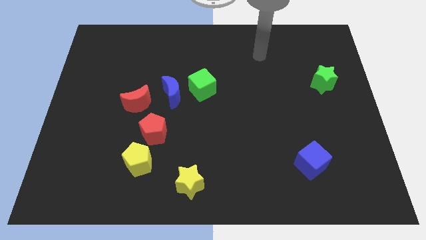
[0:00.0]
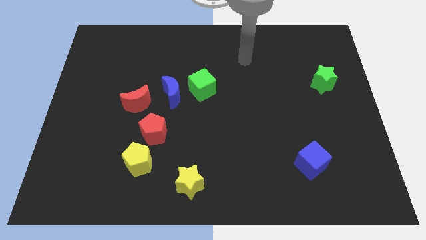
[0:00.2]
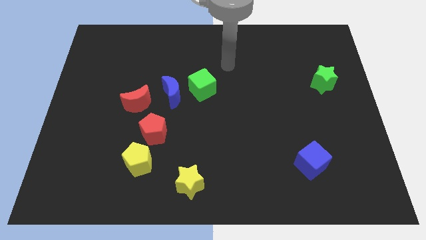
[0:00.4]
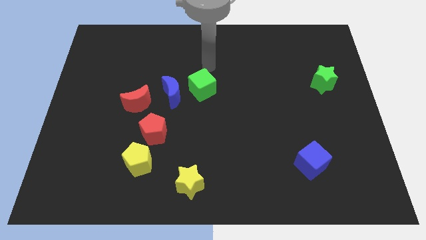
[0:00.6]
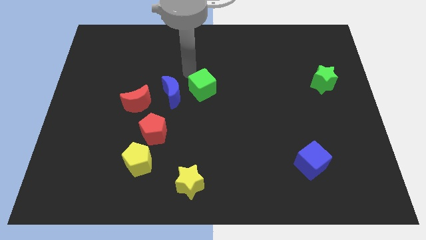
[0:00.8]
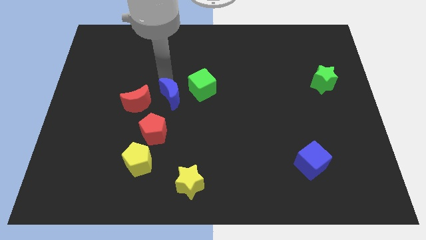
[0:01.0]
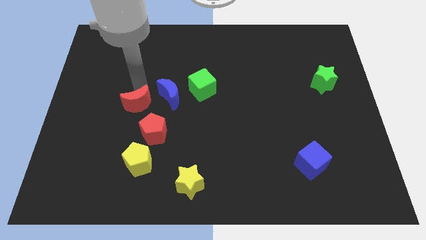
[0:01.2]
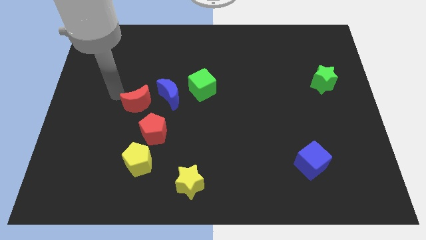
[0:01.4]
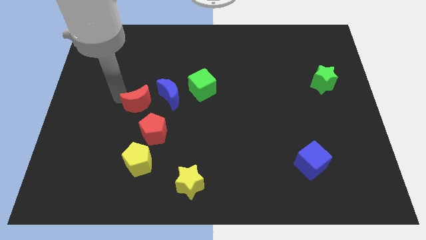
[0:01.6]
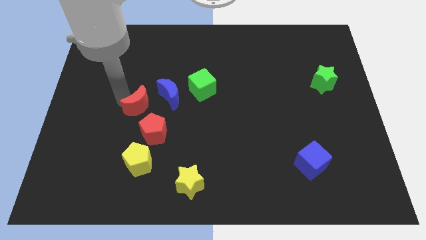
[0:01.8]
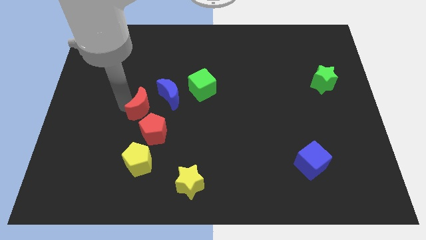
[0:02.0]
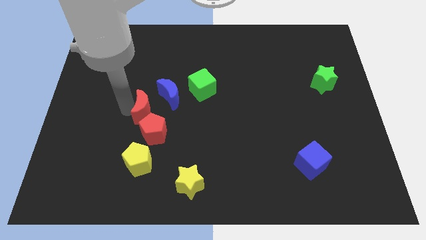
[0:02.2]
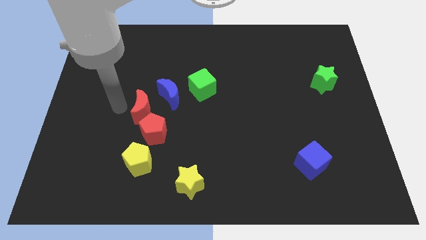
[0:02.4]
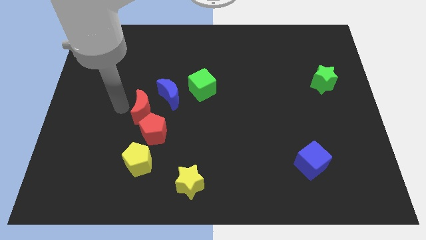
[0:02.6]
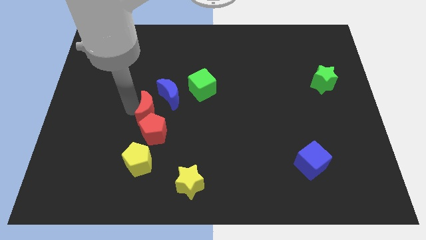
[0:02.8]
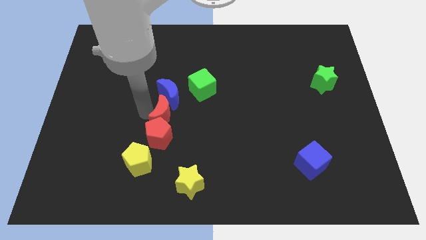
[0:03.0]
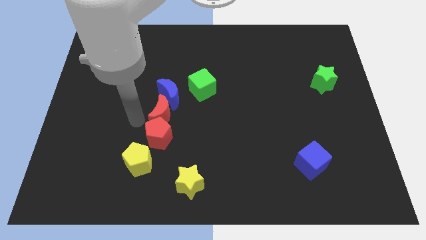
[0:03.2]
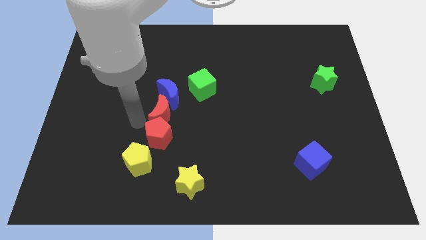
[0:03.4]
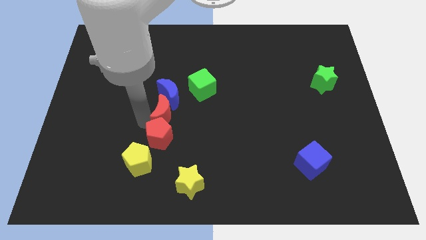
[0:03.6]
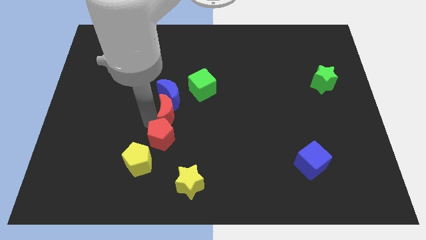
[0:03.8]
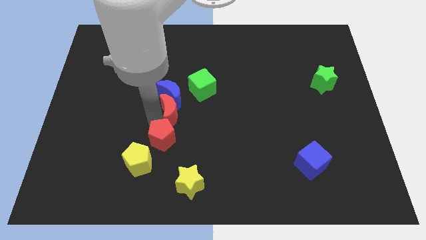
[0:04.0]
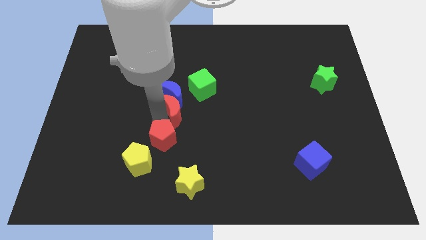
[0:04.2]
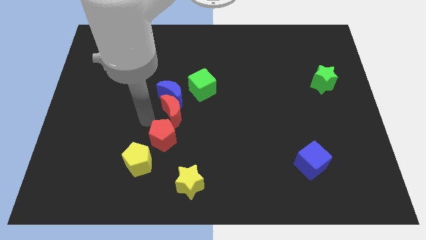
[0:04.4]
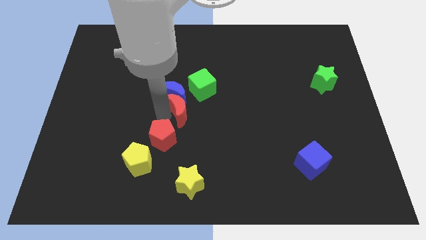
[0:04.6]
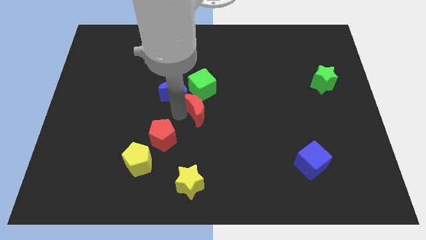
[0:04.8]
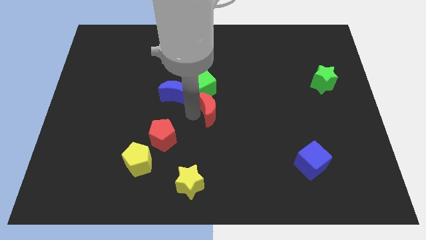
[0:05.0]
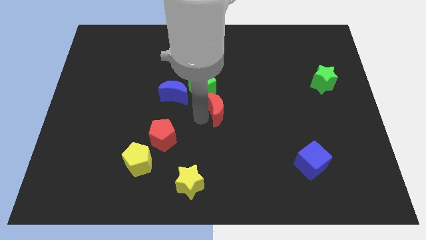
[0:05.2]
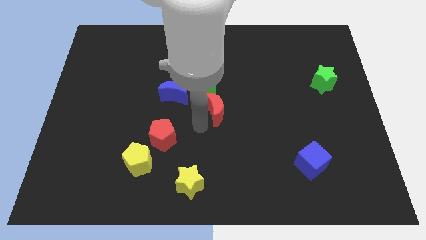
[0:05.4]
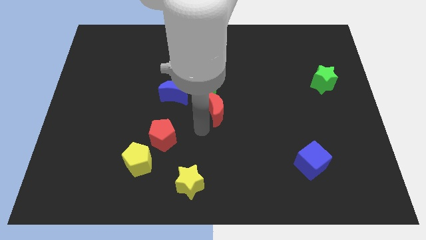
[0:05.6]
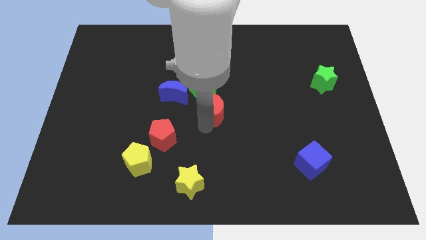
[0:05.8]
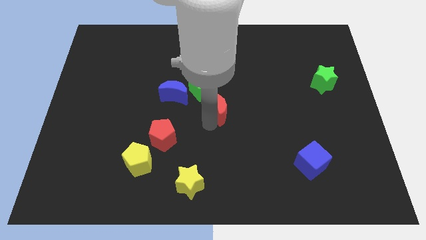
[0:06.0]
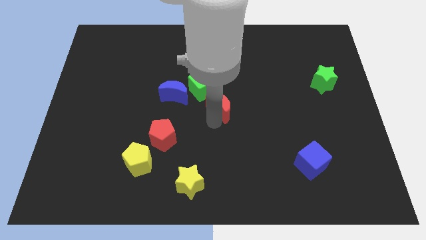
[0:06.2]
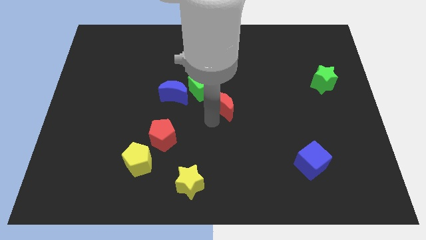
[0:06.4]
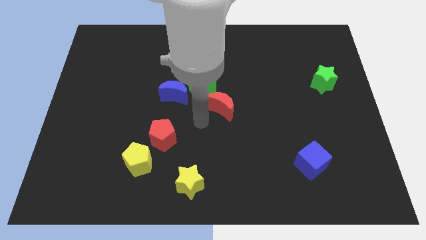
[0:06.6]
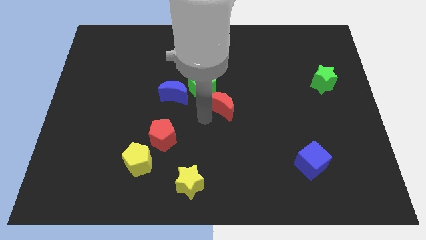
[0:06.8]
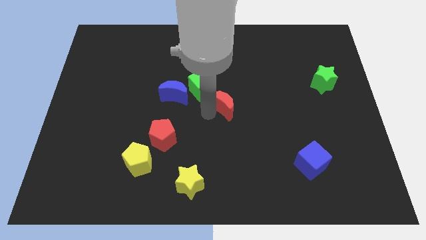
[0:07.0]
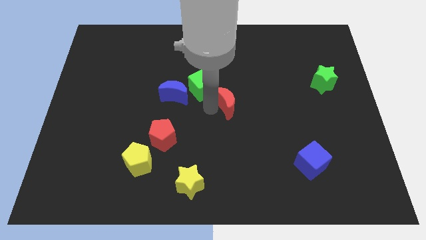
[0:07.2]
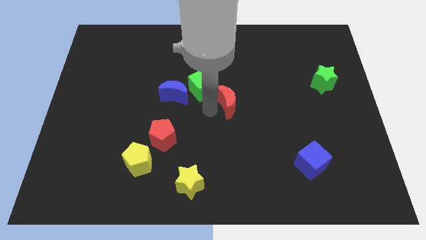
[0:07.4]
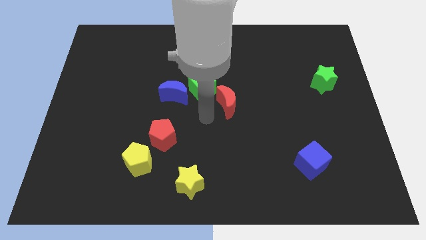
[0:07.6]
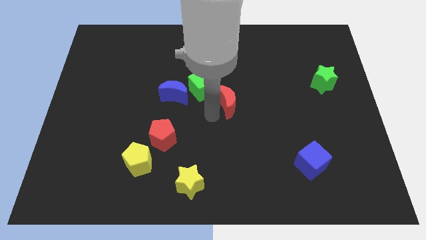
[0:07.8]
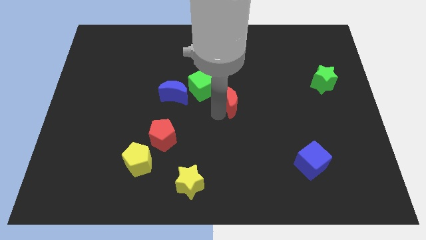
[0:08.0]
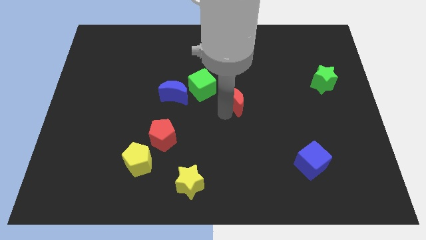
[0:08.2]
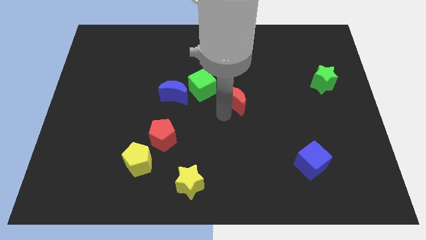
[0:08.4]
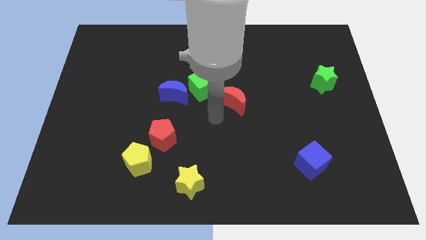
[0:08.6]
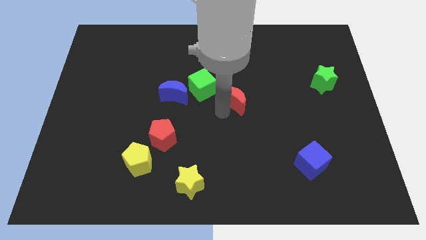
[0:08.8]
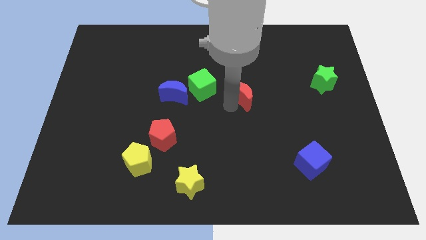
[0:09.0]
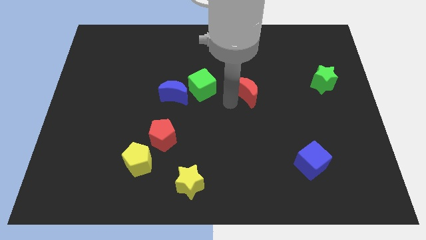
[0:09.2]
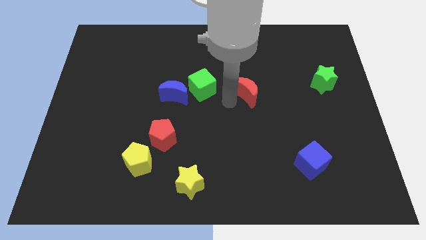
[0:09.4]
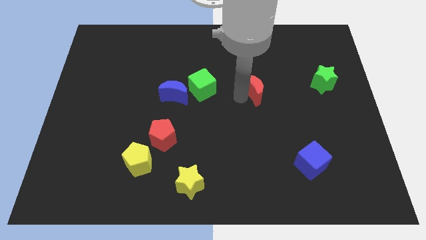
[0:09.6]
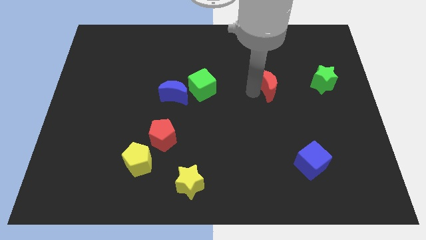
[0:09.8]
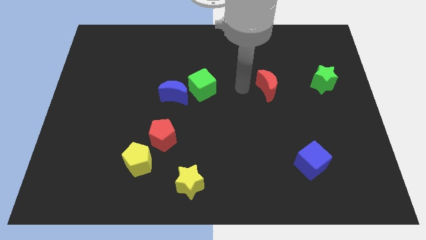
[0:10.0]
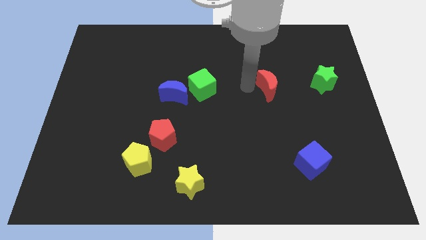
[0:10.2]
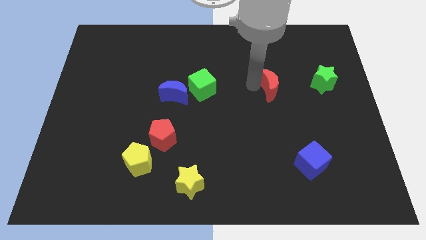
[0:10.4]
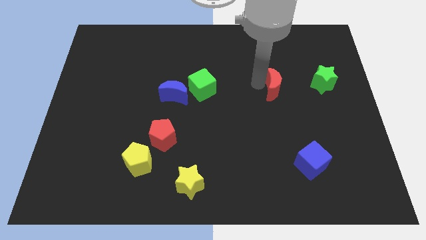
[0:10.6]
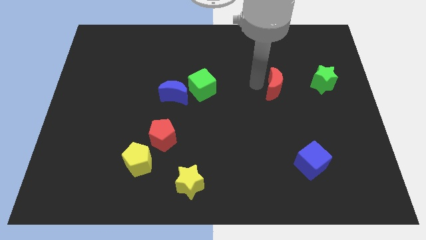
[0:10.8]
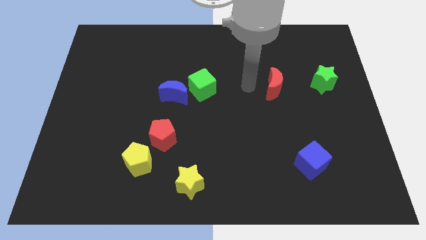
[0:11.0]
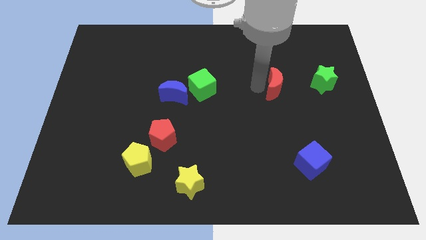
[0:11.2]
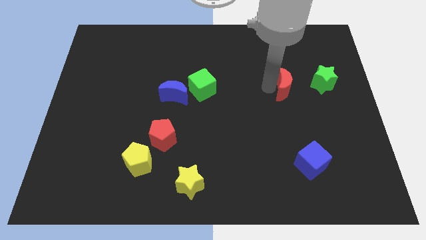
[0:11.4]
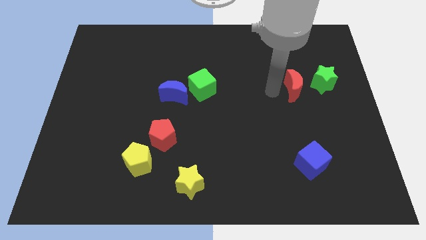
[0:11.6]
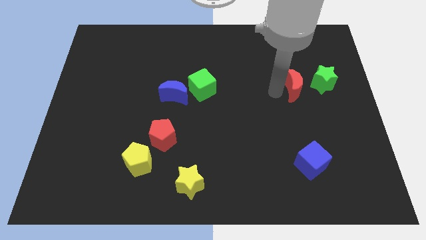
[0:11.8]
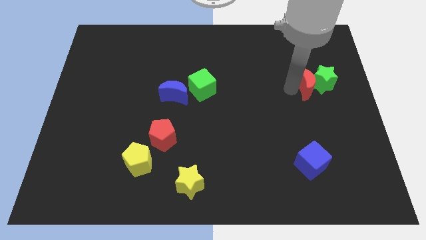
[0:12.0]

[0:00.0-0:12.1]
move the red moon close to the green star

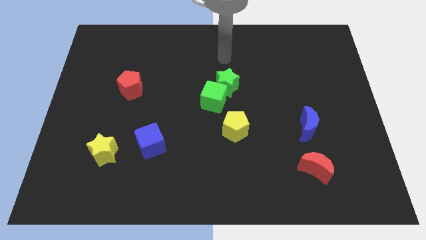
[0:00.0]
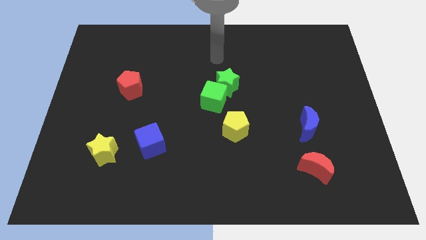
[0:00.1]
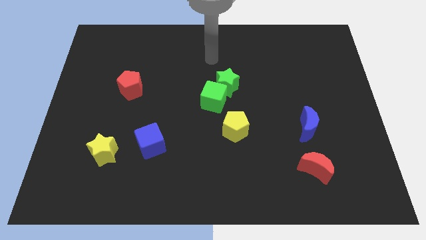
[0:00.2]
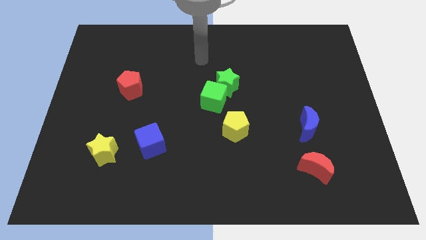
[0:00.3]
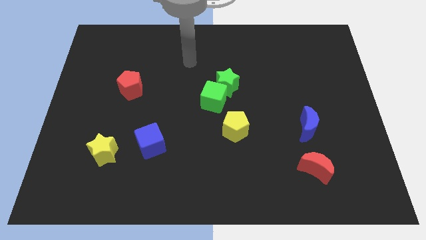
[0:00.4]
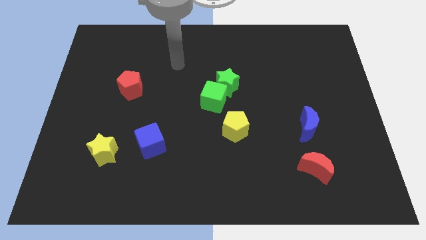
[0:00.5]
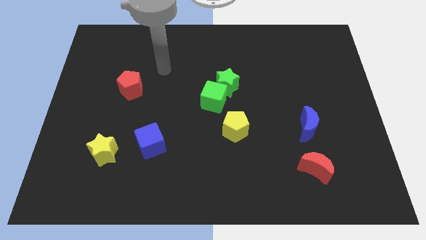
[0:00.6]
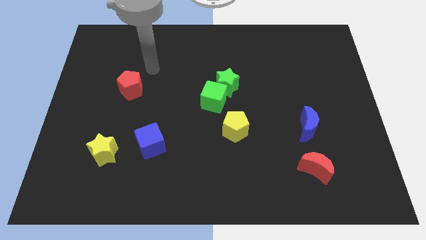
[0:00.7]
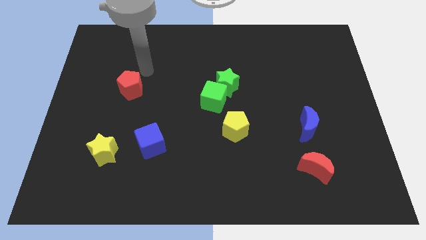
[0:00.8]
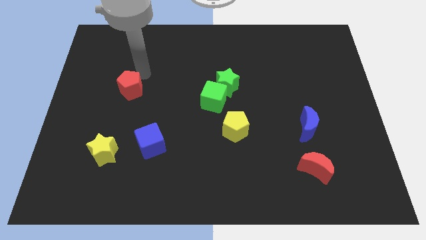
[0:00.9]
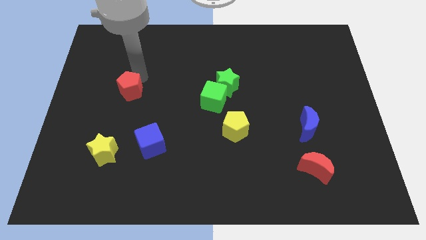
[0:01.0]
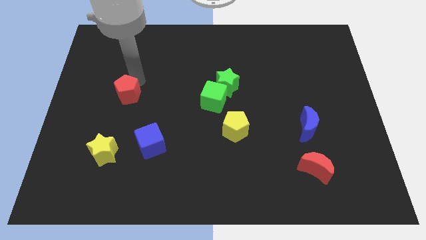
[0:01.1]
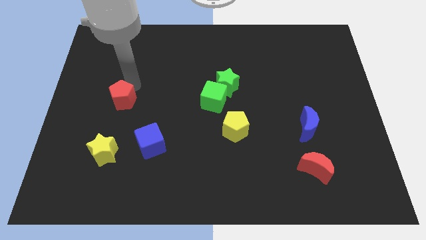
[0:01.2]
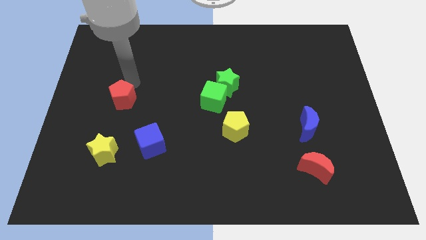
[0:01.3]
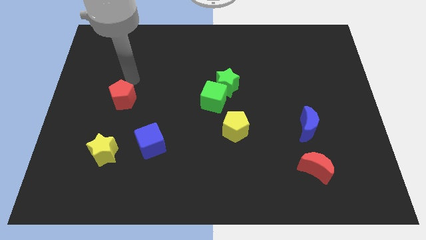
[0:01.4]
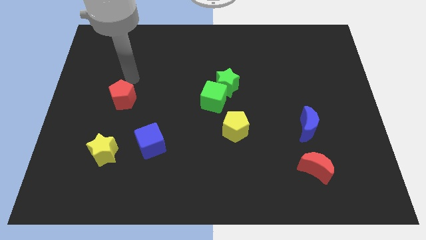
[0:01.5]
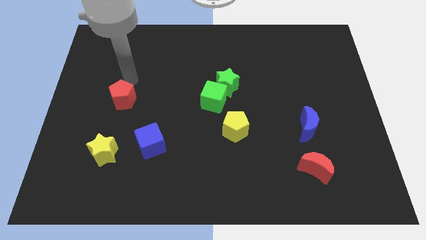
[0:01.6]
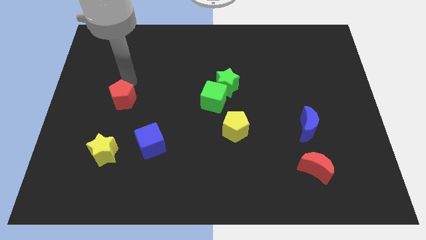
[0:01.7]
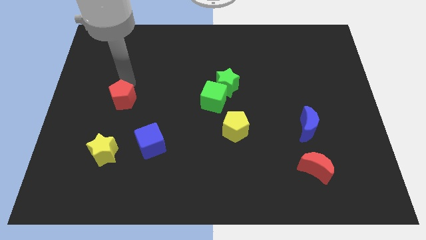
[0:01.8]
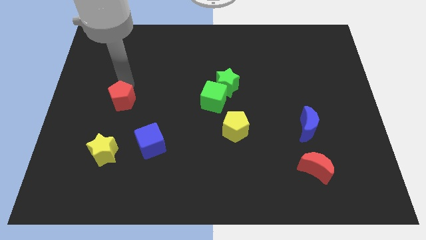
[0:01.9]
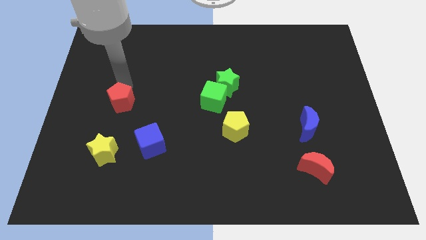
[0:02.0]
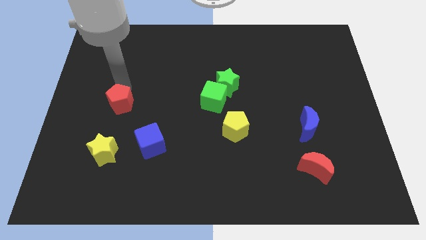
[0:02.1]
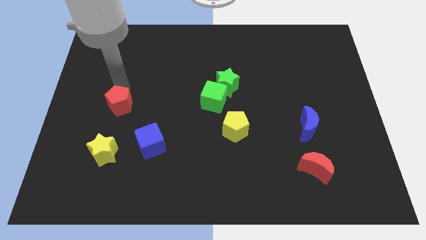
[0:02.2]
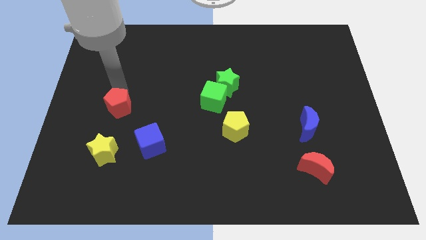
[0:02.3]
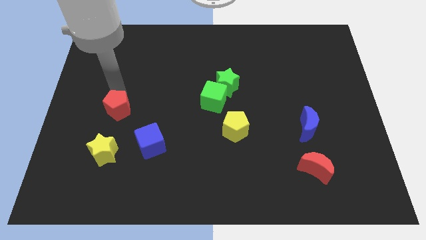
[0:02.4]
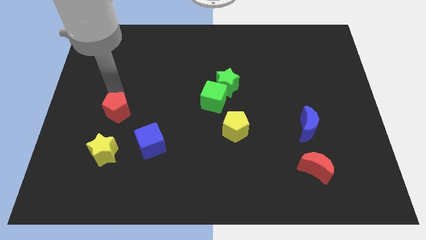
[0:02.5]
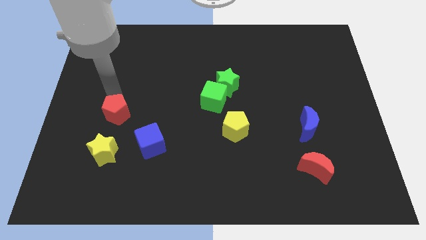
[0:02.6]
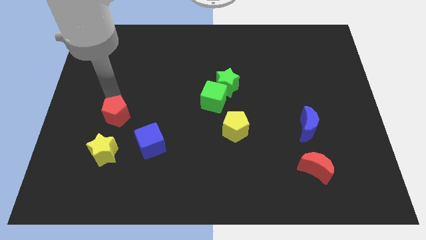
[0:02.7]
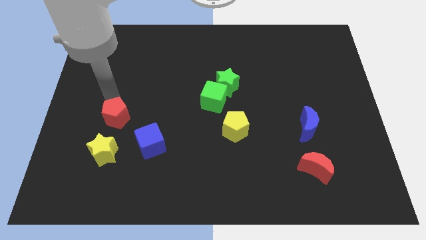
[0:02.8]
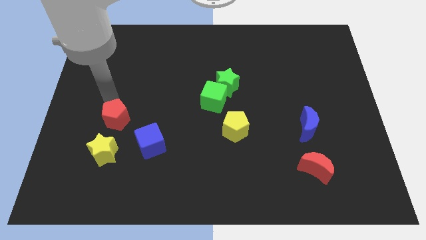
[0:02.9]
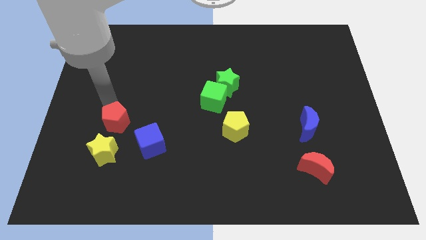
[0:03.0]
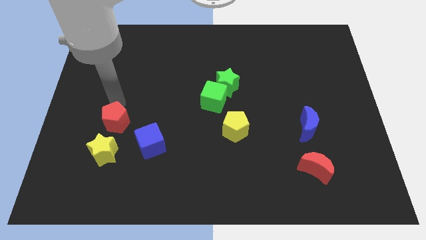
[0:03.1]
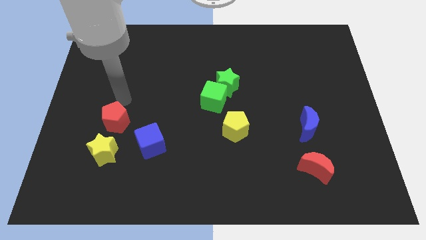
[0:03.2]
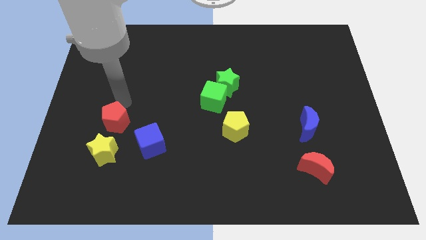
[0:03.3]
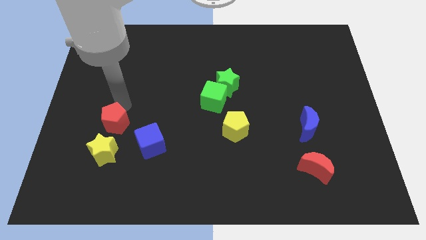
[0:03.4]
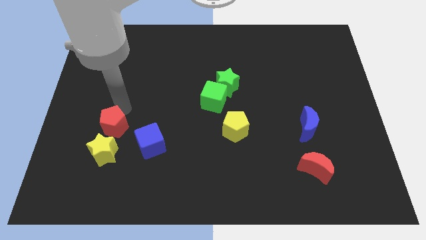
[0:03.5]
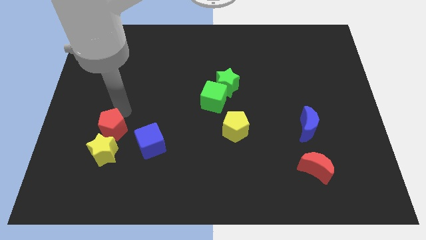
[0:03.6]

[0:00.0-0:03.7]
move the red pentagon next to the yellow star
